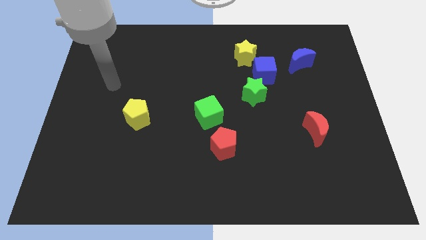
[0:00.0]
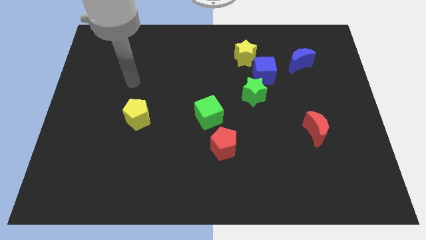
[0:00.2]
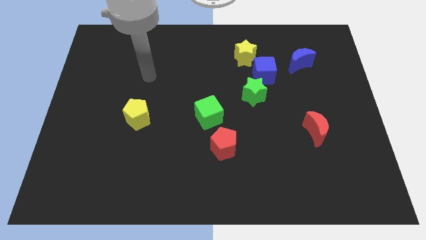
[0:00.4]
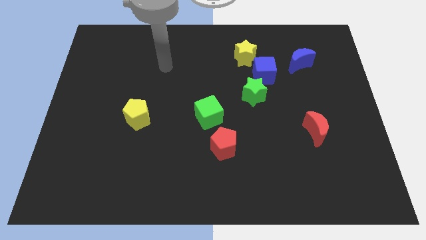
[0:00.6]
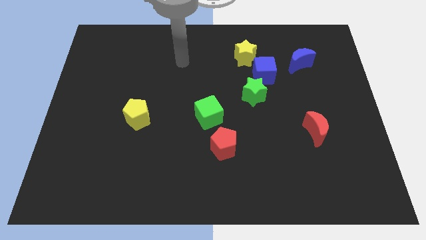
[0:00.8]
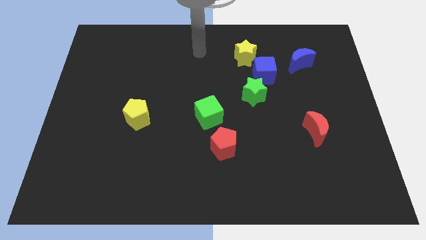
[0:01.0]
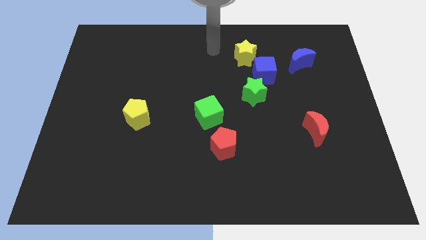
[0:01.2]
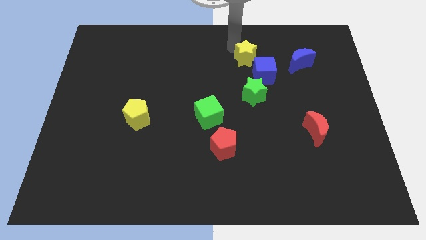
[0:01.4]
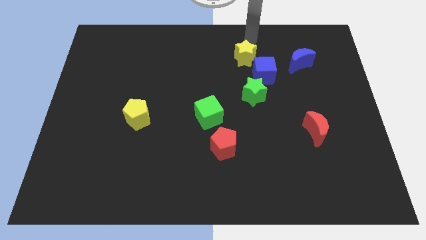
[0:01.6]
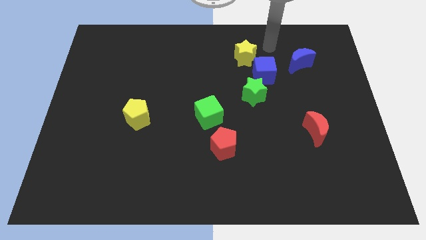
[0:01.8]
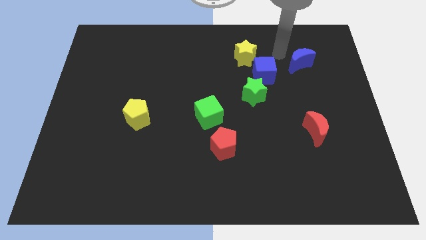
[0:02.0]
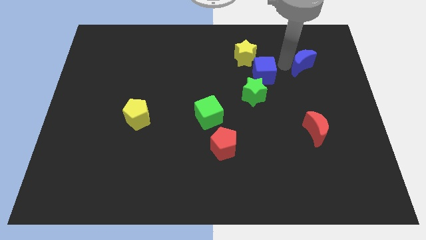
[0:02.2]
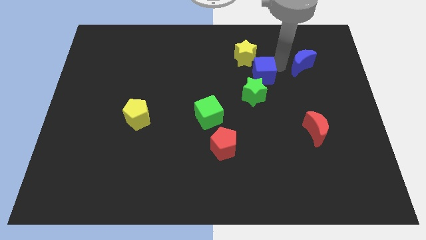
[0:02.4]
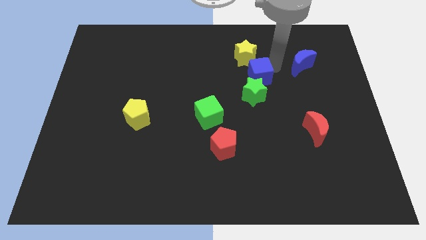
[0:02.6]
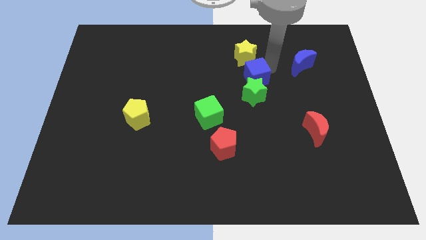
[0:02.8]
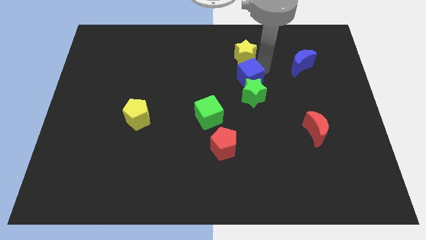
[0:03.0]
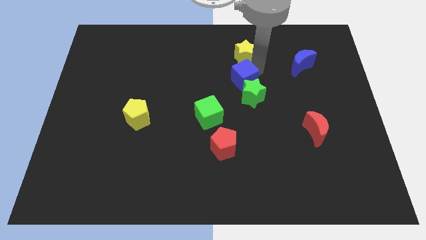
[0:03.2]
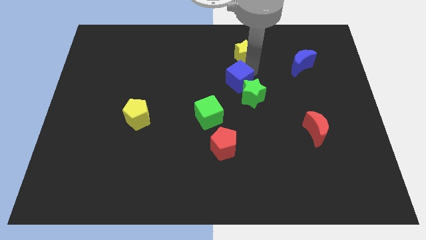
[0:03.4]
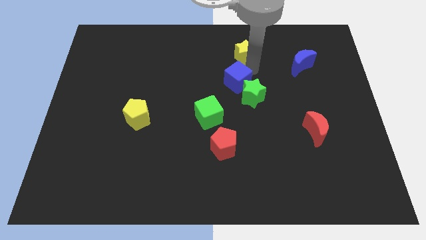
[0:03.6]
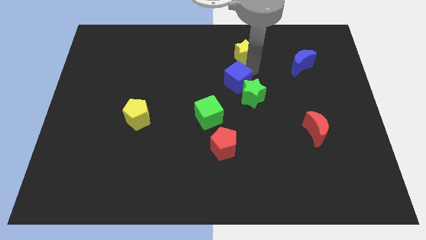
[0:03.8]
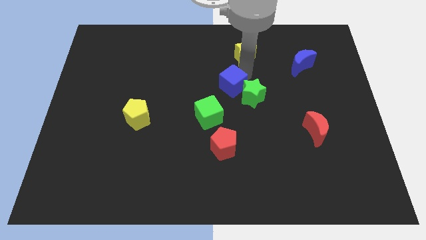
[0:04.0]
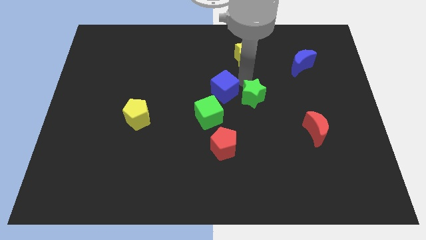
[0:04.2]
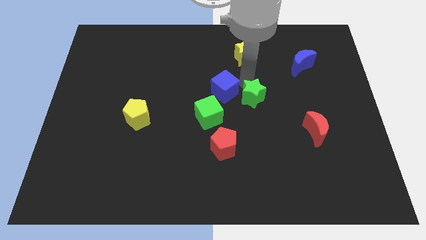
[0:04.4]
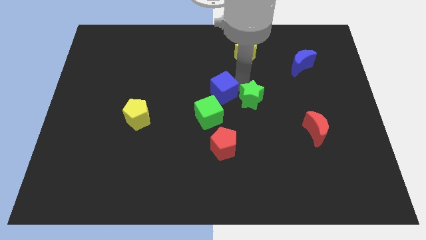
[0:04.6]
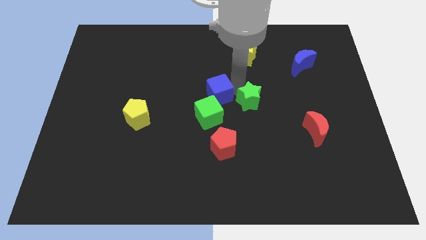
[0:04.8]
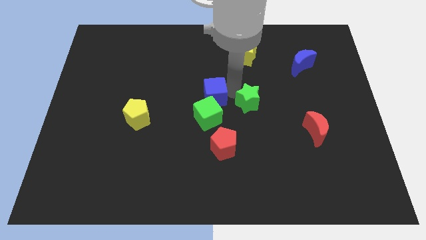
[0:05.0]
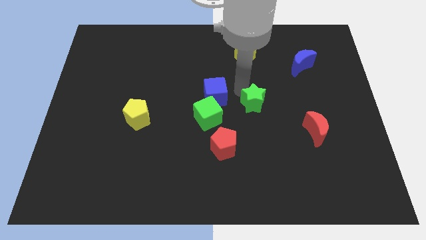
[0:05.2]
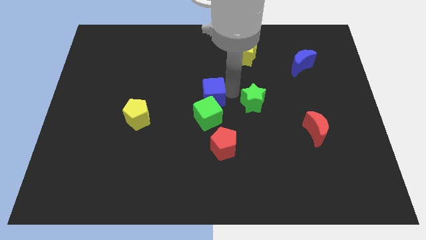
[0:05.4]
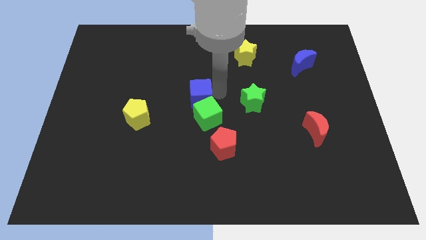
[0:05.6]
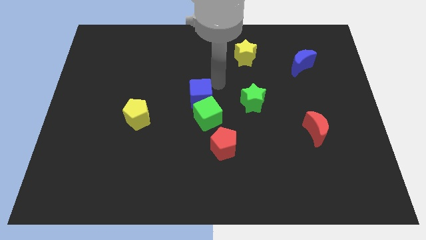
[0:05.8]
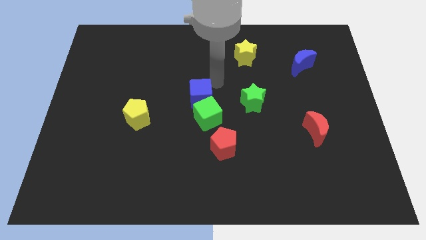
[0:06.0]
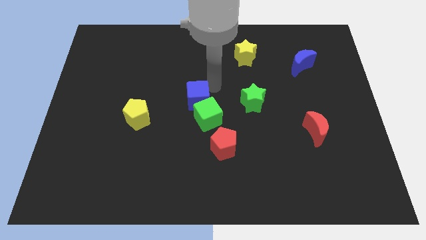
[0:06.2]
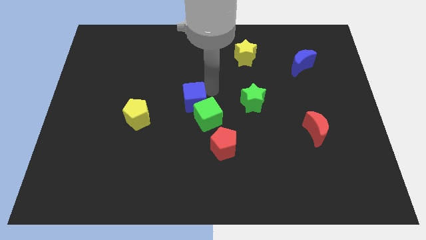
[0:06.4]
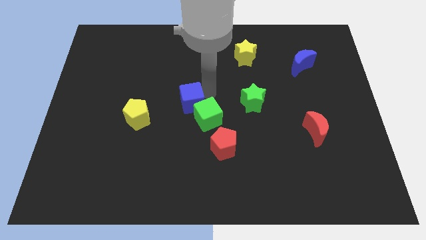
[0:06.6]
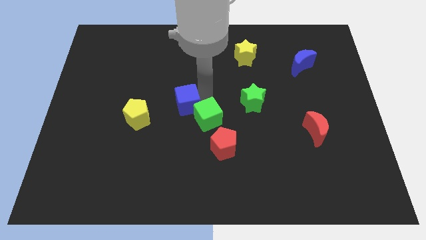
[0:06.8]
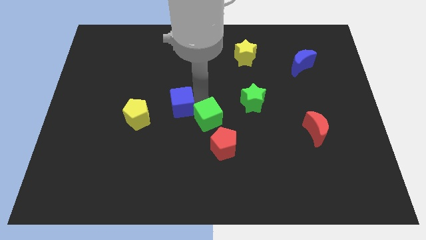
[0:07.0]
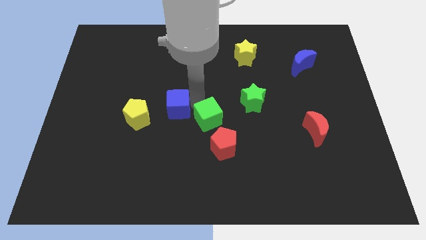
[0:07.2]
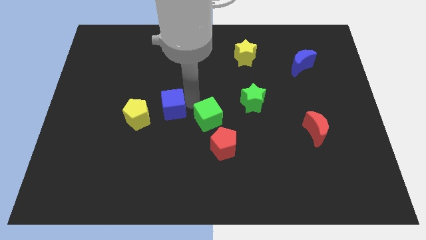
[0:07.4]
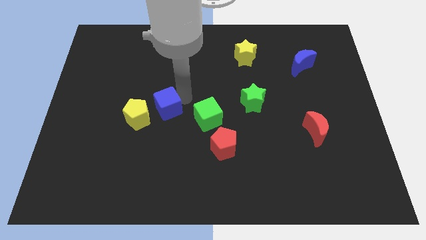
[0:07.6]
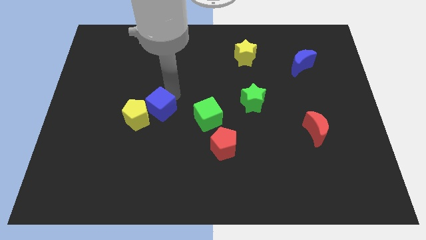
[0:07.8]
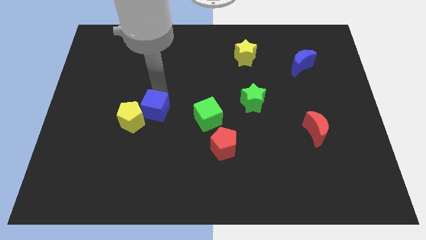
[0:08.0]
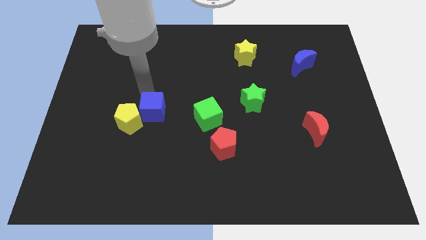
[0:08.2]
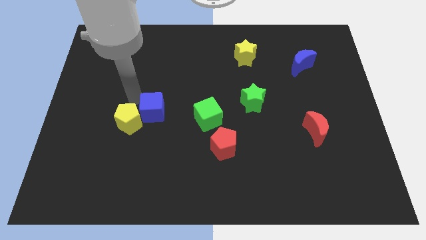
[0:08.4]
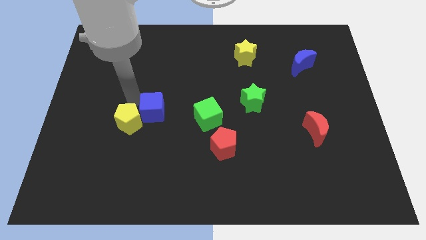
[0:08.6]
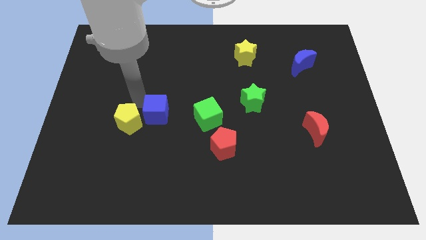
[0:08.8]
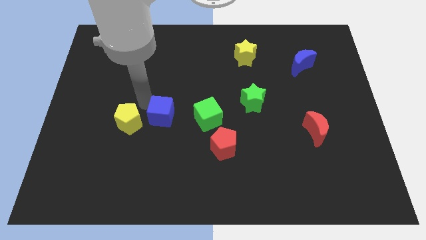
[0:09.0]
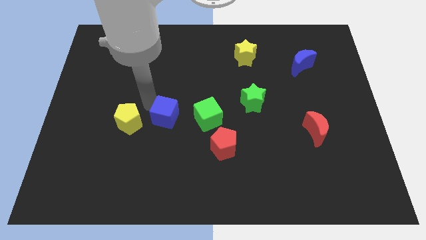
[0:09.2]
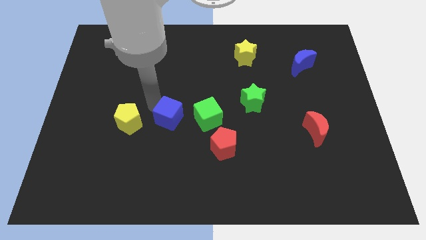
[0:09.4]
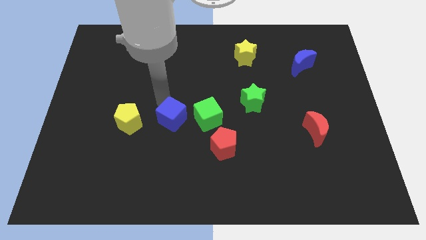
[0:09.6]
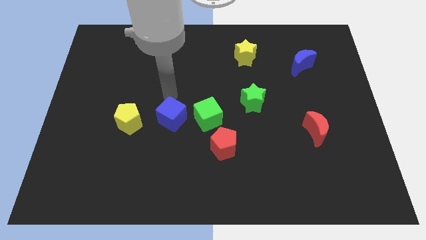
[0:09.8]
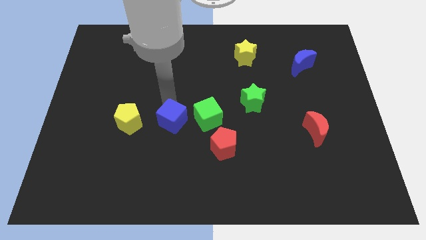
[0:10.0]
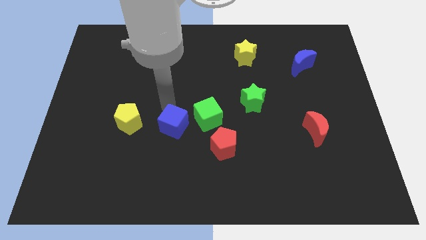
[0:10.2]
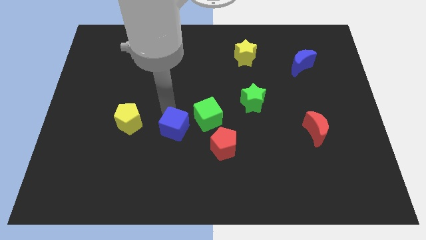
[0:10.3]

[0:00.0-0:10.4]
slide the blue cube to the left of the red pentagon

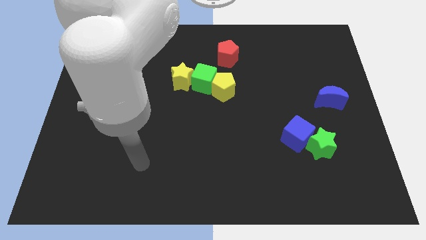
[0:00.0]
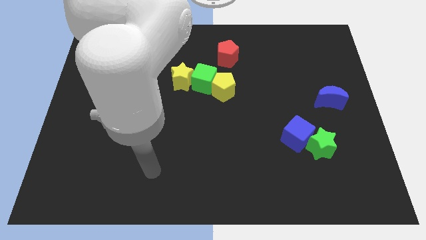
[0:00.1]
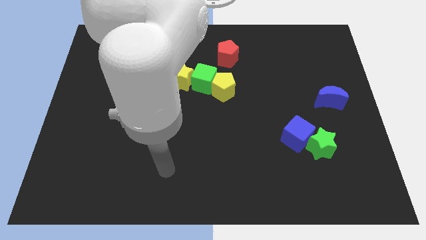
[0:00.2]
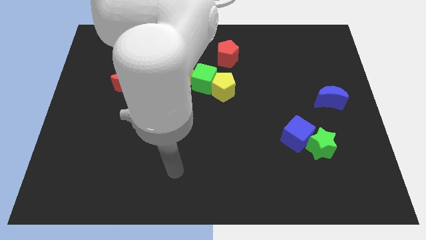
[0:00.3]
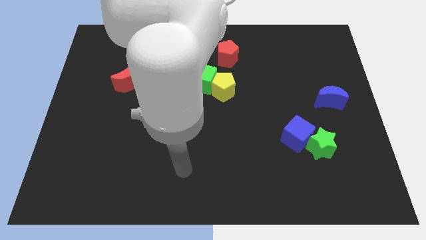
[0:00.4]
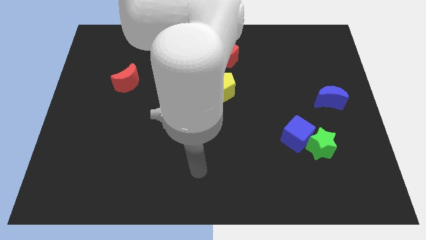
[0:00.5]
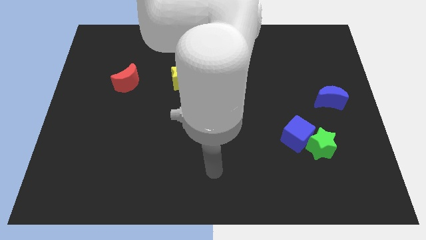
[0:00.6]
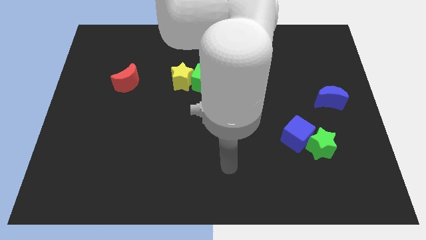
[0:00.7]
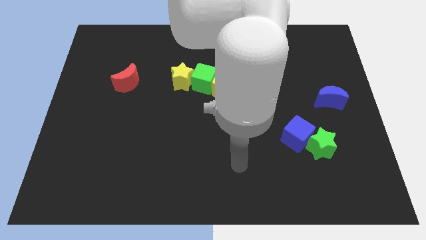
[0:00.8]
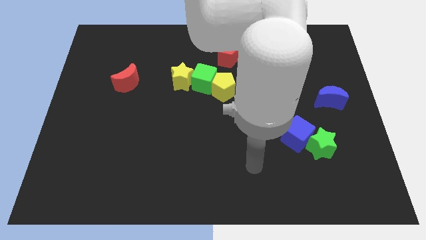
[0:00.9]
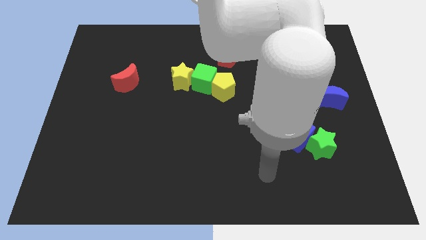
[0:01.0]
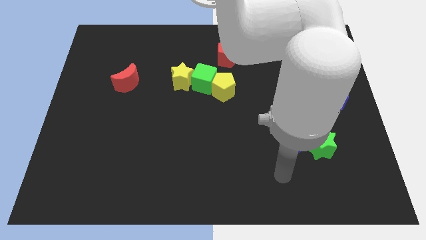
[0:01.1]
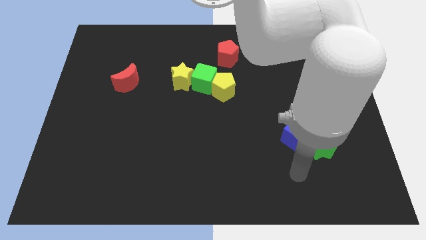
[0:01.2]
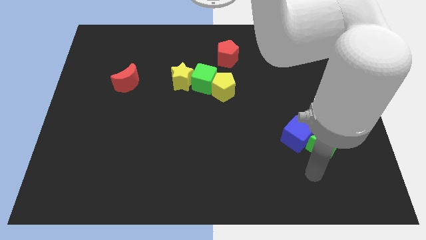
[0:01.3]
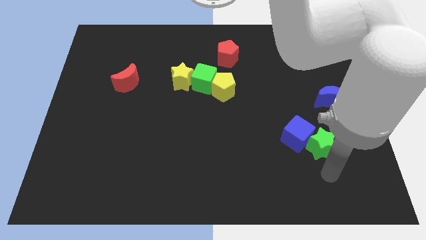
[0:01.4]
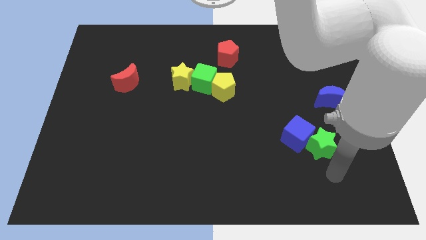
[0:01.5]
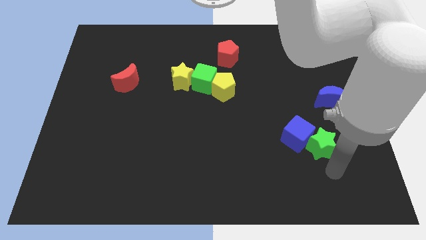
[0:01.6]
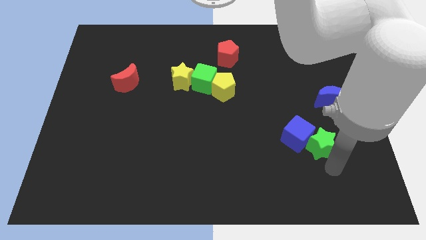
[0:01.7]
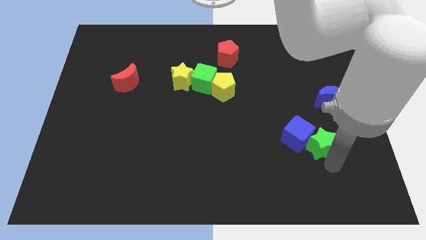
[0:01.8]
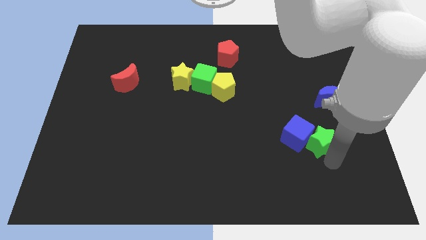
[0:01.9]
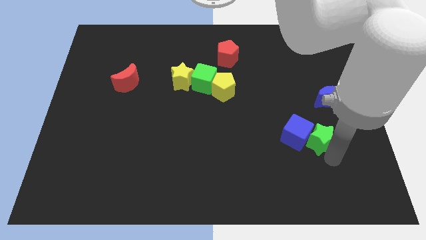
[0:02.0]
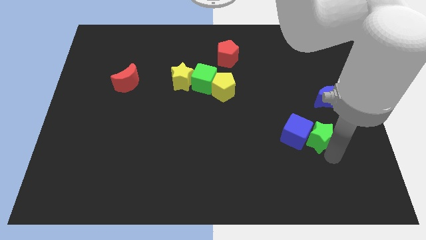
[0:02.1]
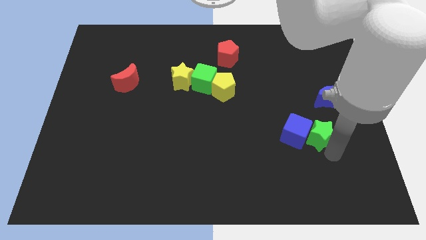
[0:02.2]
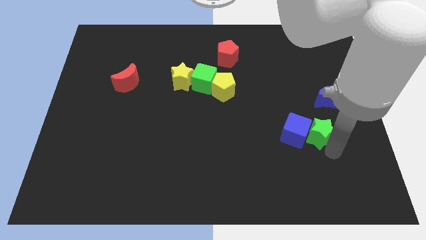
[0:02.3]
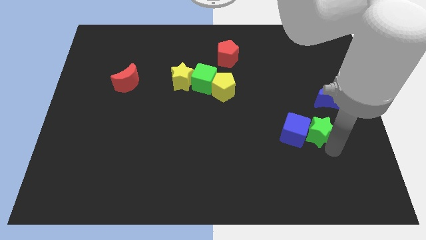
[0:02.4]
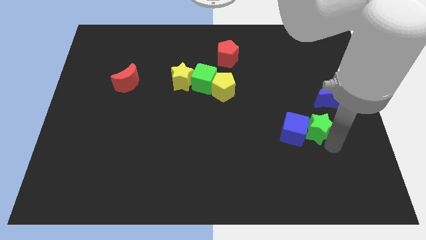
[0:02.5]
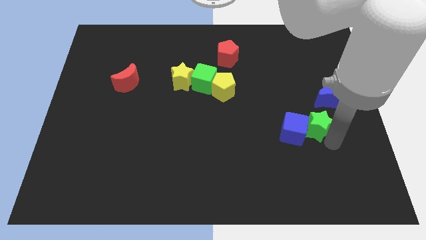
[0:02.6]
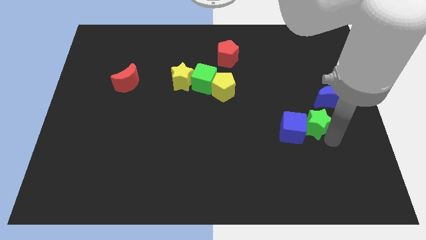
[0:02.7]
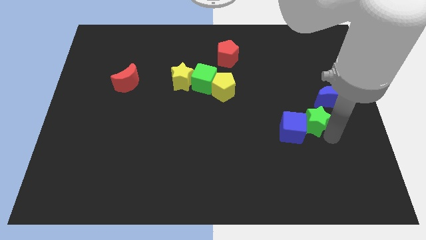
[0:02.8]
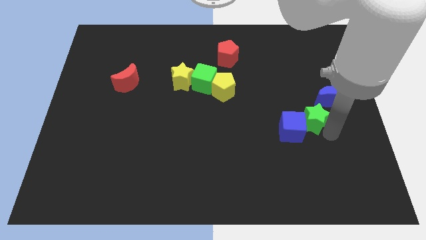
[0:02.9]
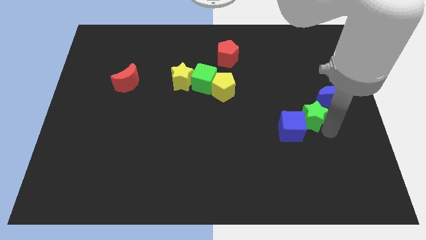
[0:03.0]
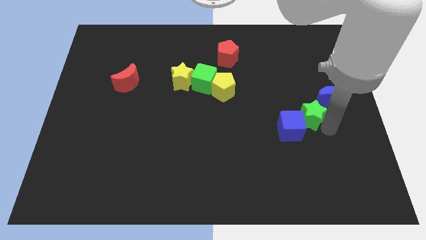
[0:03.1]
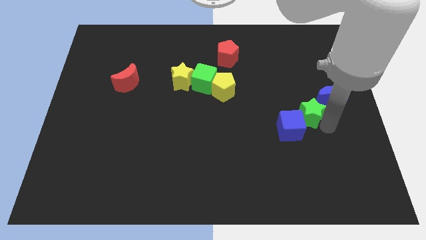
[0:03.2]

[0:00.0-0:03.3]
push the green star left of the blue moon
